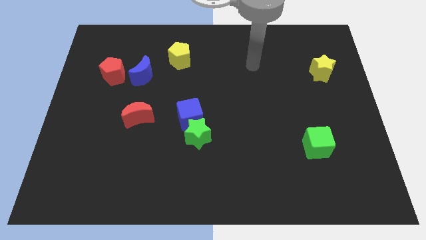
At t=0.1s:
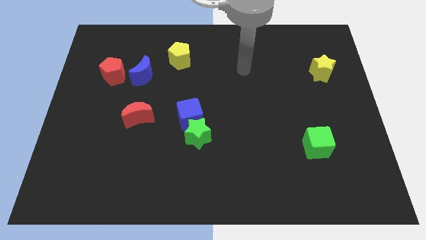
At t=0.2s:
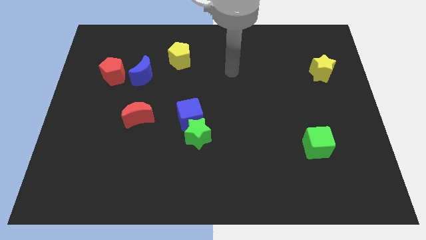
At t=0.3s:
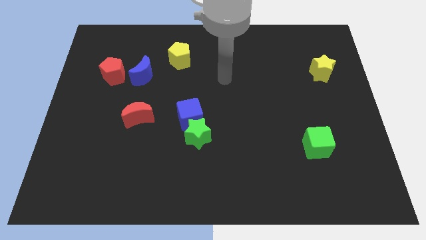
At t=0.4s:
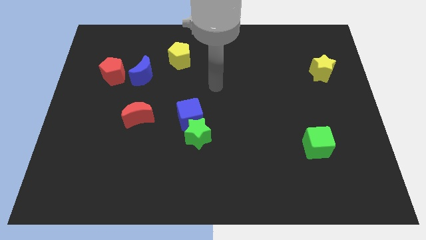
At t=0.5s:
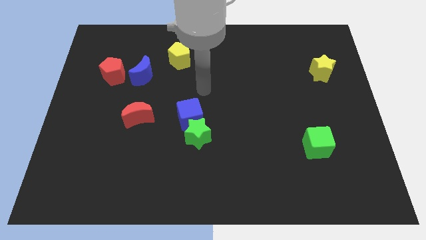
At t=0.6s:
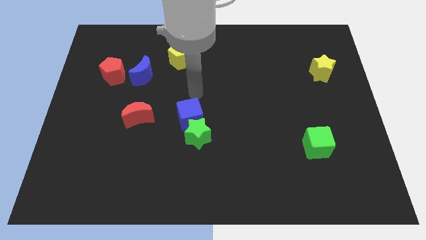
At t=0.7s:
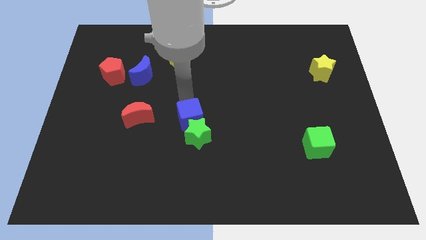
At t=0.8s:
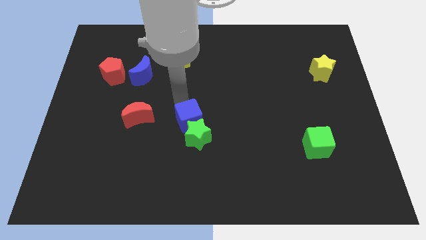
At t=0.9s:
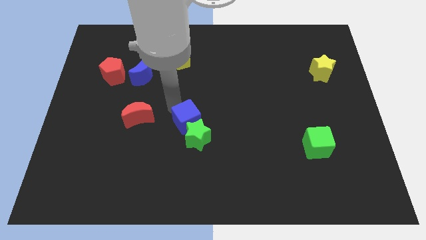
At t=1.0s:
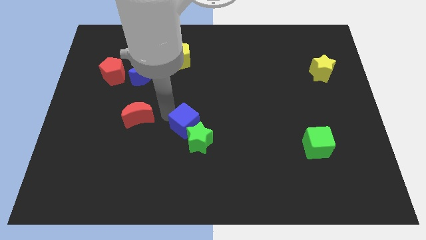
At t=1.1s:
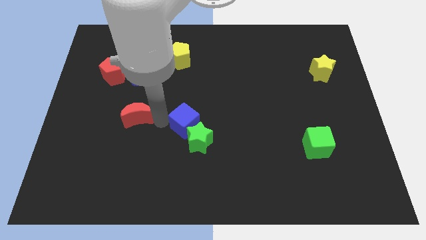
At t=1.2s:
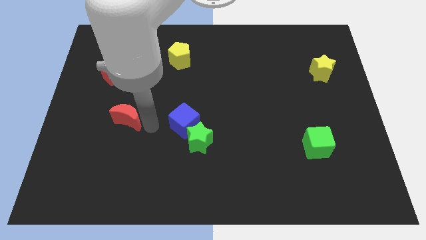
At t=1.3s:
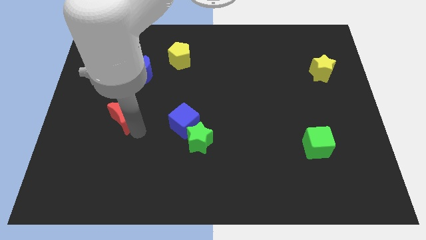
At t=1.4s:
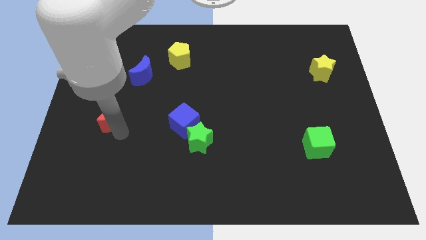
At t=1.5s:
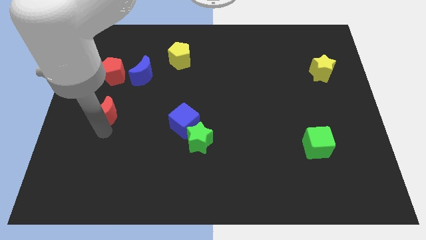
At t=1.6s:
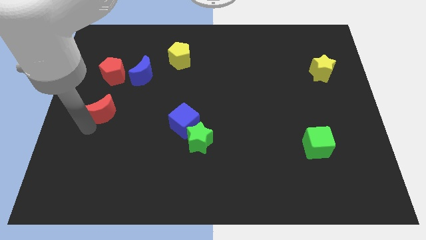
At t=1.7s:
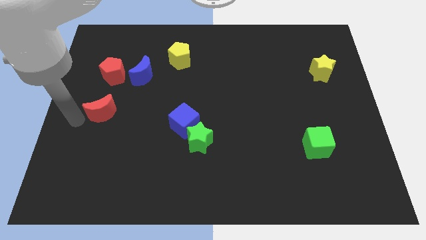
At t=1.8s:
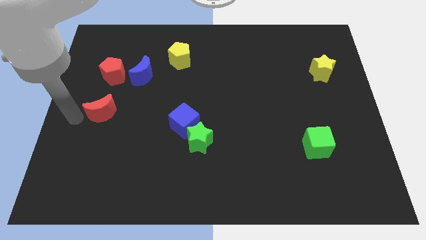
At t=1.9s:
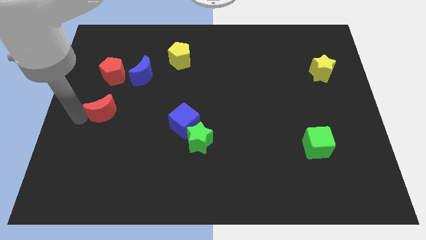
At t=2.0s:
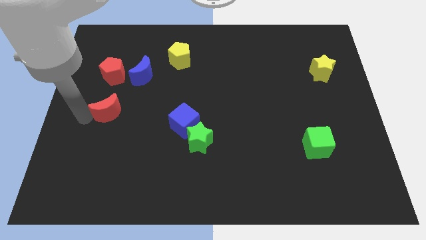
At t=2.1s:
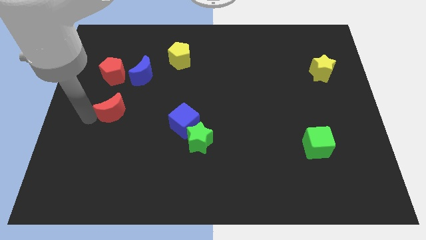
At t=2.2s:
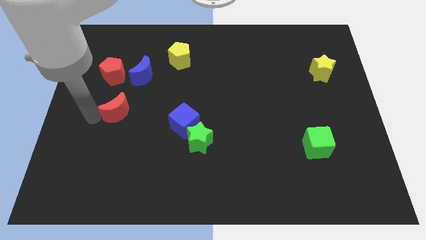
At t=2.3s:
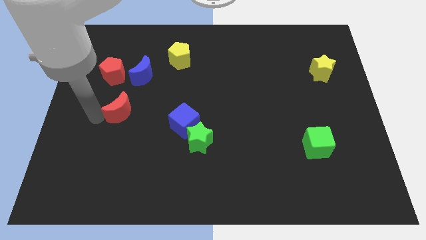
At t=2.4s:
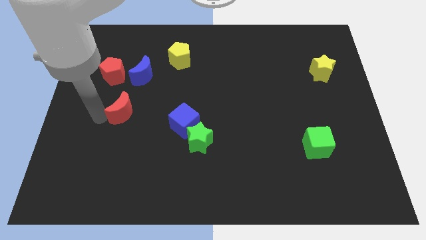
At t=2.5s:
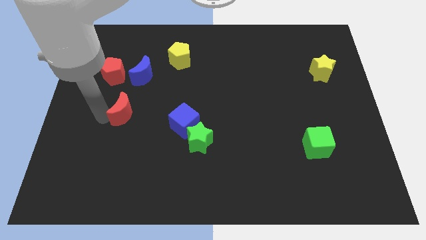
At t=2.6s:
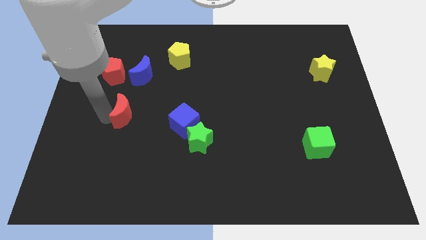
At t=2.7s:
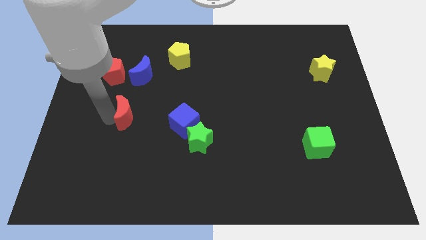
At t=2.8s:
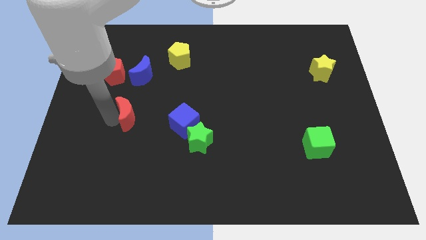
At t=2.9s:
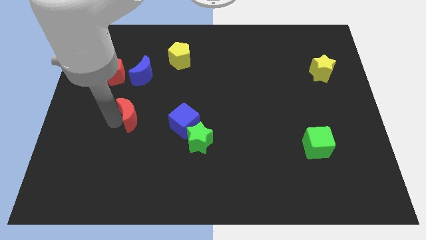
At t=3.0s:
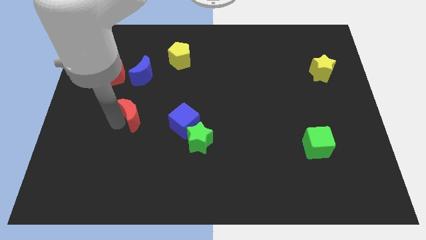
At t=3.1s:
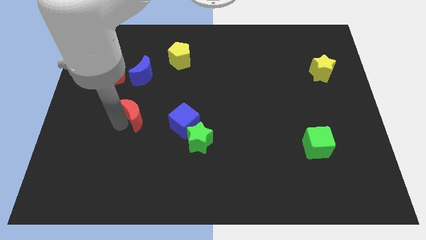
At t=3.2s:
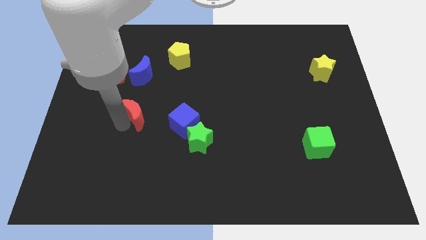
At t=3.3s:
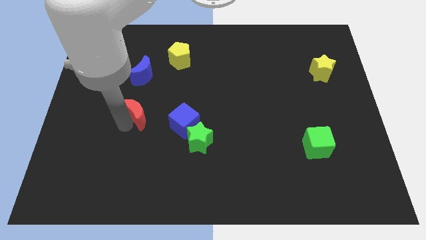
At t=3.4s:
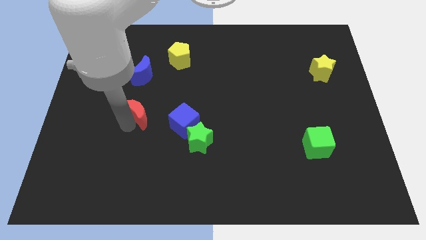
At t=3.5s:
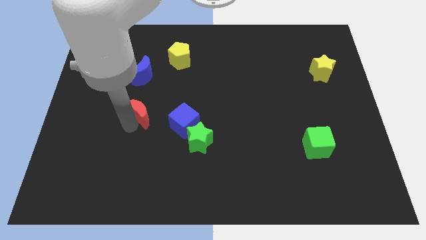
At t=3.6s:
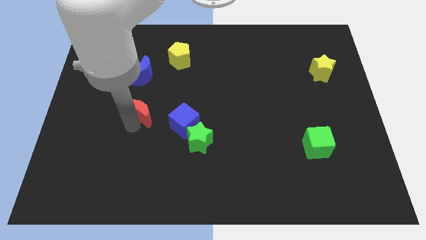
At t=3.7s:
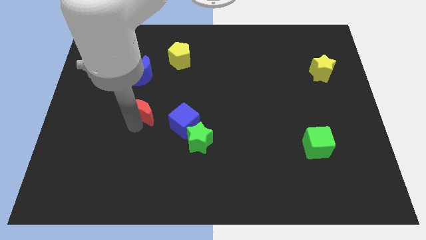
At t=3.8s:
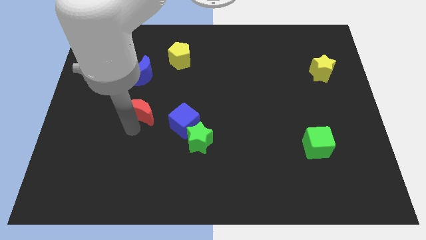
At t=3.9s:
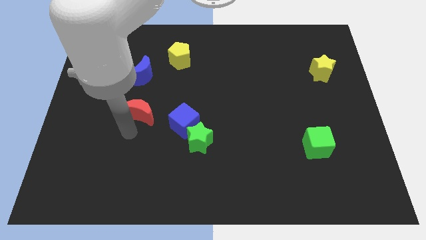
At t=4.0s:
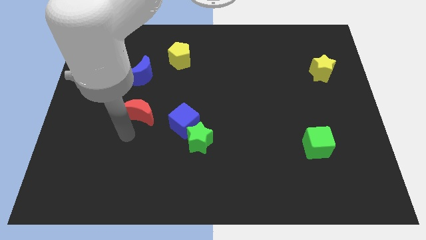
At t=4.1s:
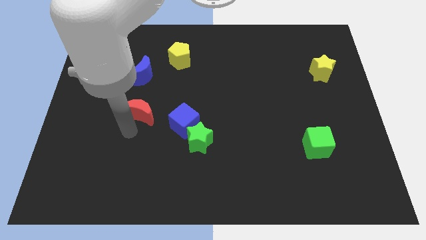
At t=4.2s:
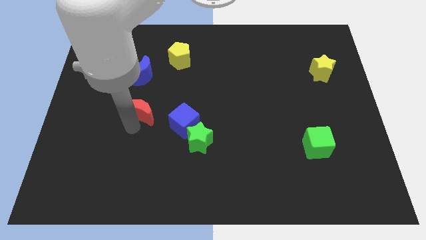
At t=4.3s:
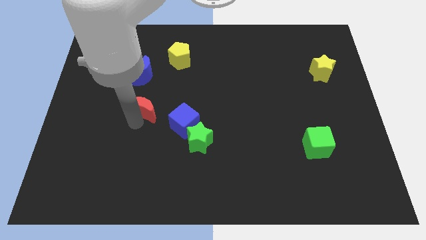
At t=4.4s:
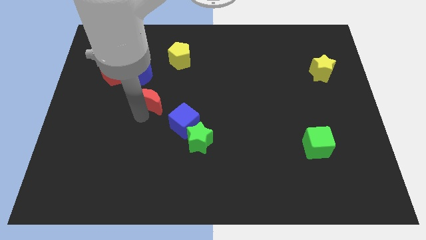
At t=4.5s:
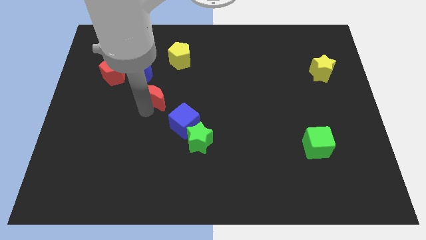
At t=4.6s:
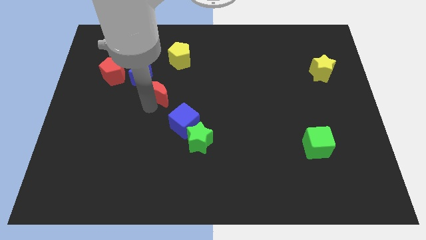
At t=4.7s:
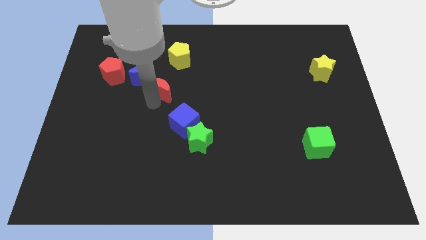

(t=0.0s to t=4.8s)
slightly push the red moon up

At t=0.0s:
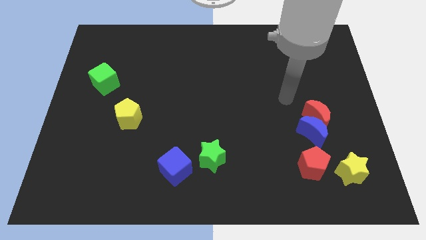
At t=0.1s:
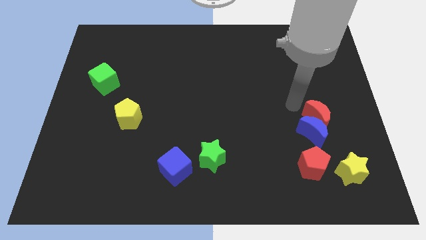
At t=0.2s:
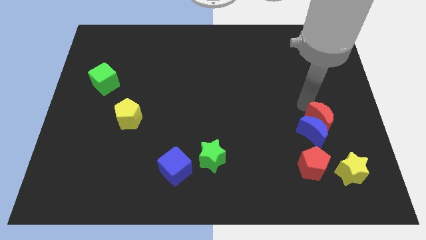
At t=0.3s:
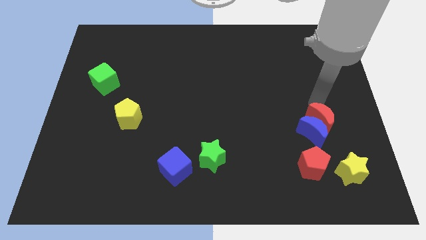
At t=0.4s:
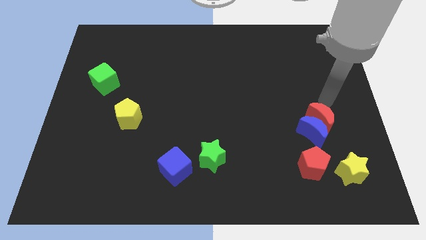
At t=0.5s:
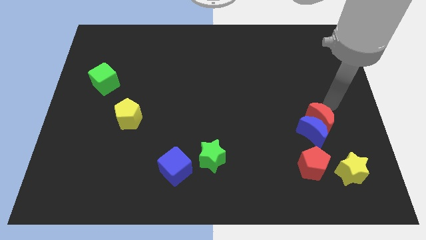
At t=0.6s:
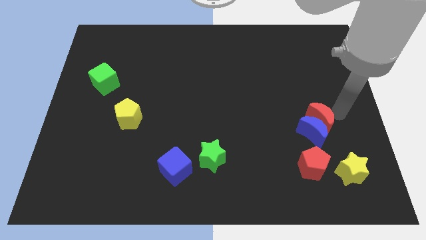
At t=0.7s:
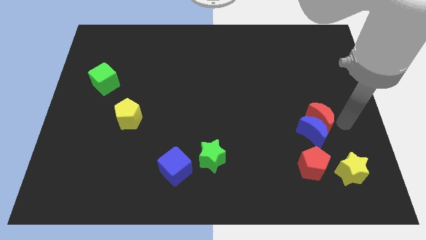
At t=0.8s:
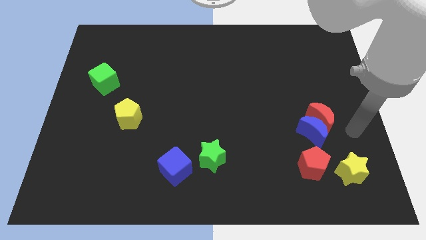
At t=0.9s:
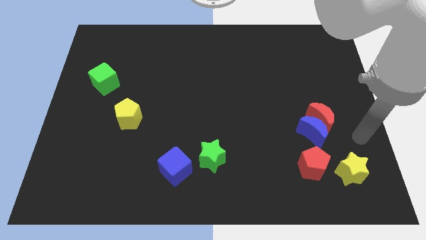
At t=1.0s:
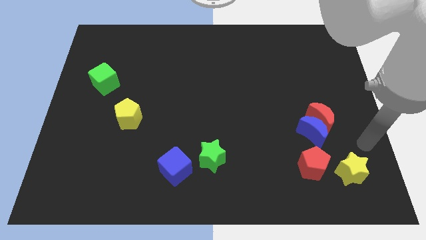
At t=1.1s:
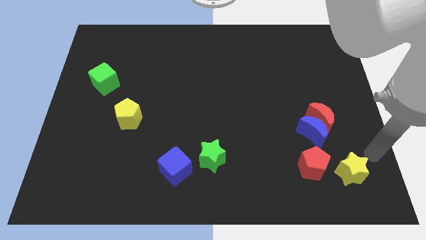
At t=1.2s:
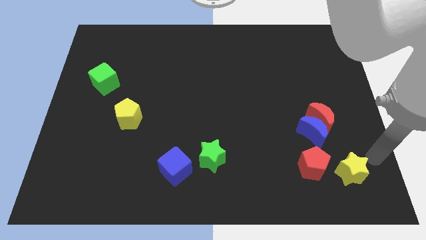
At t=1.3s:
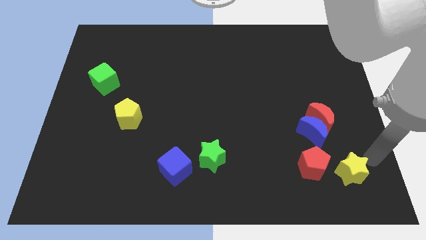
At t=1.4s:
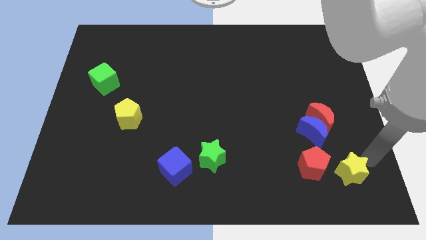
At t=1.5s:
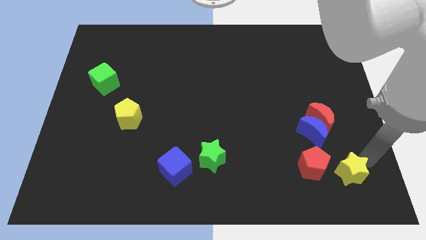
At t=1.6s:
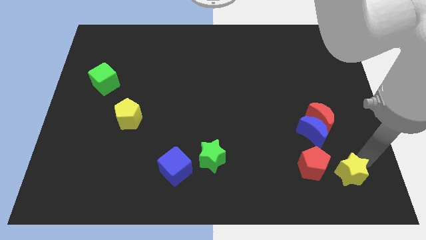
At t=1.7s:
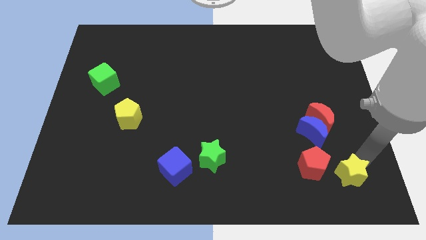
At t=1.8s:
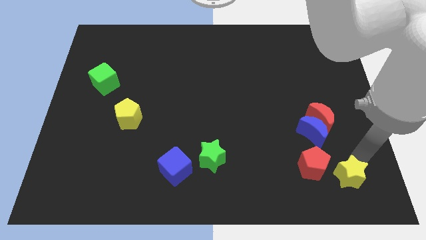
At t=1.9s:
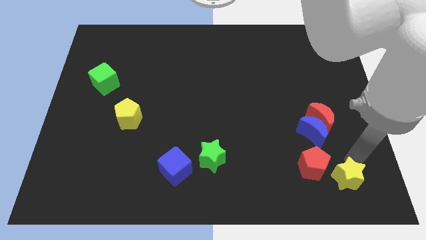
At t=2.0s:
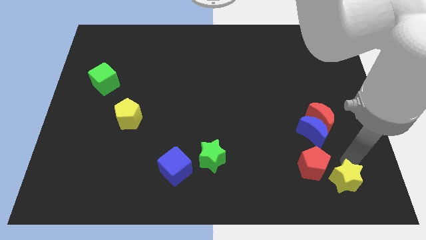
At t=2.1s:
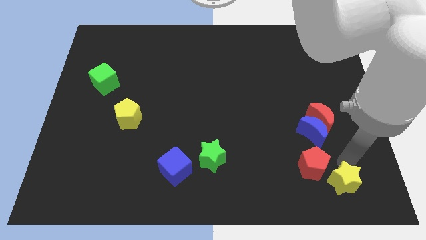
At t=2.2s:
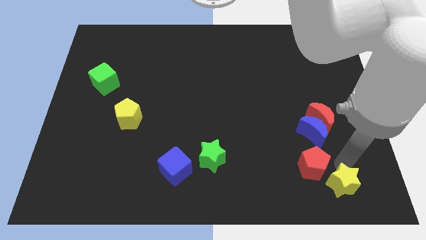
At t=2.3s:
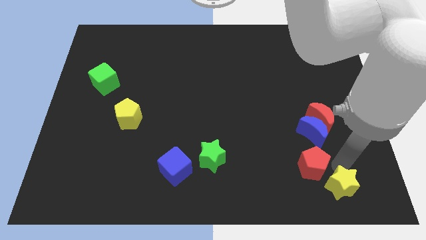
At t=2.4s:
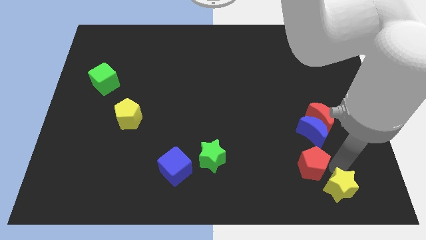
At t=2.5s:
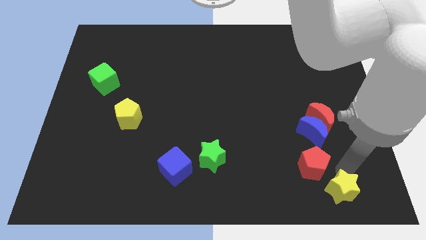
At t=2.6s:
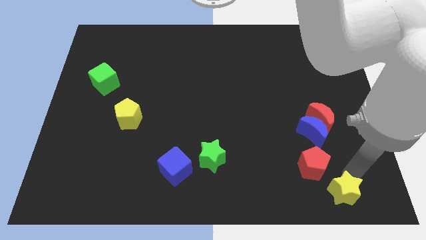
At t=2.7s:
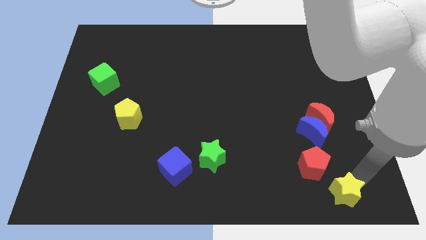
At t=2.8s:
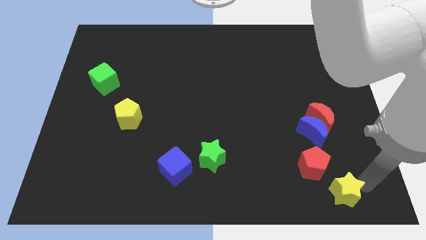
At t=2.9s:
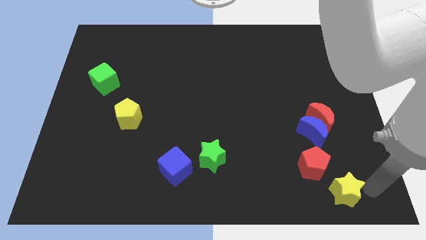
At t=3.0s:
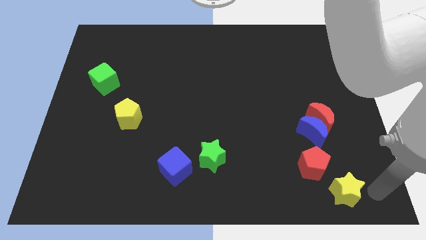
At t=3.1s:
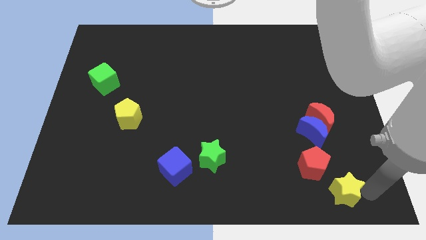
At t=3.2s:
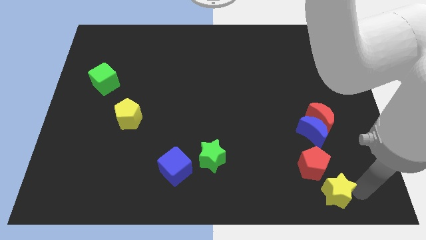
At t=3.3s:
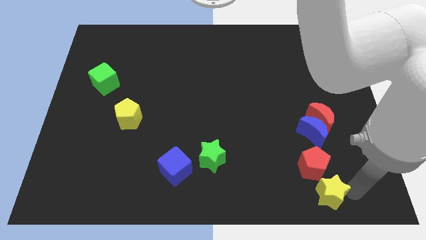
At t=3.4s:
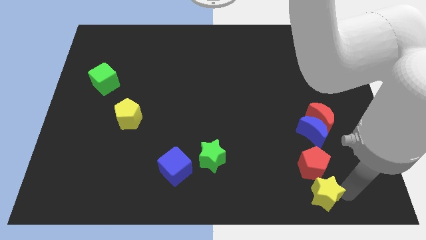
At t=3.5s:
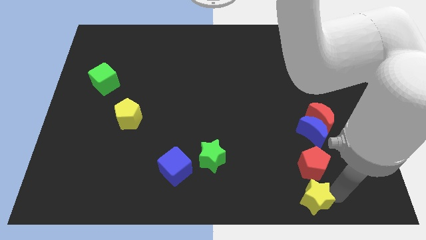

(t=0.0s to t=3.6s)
slightly push the yellow star left
